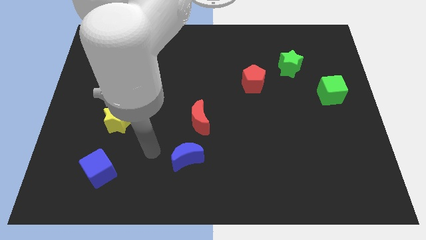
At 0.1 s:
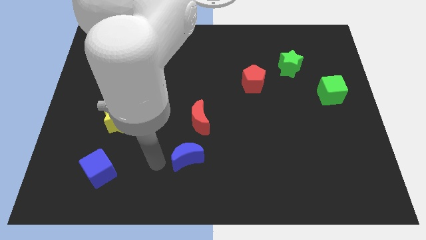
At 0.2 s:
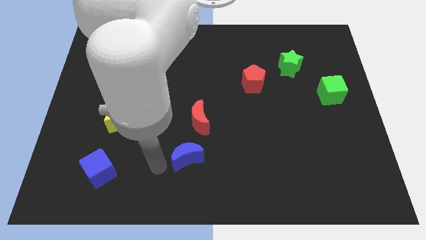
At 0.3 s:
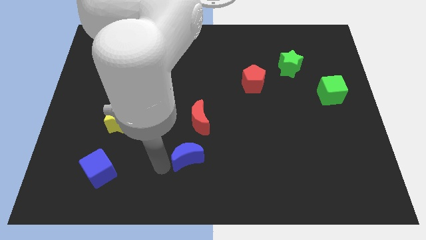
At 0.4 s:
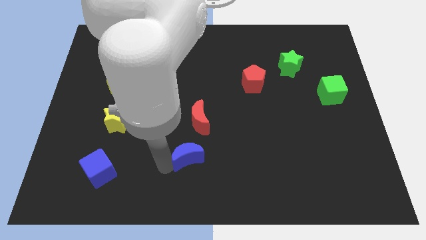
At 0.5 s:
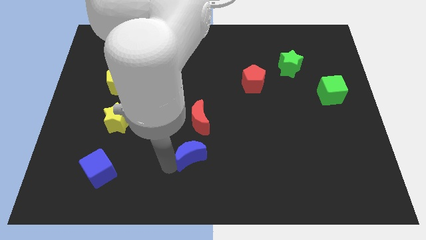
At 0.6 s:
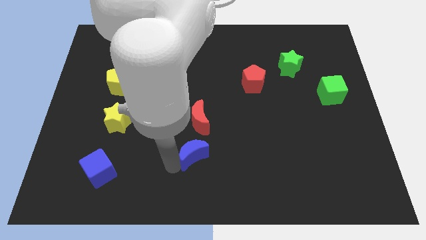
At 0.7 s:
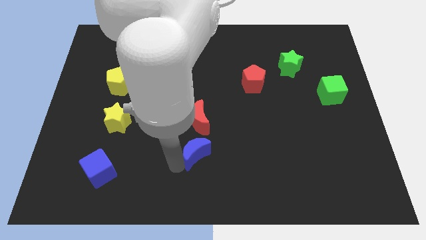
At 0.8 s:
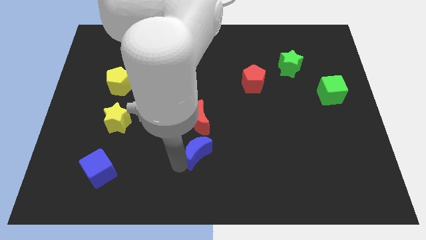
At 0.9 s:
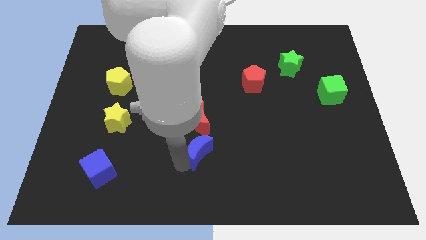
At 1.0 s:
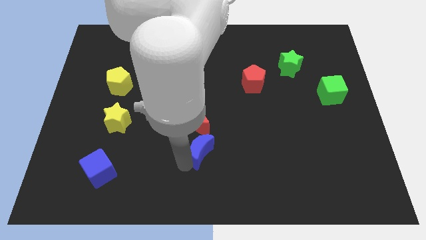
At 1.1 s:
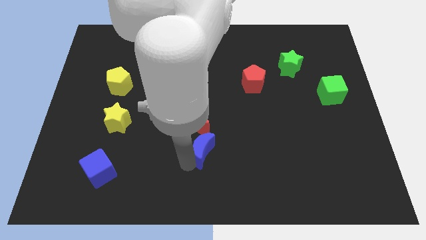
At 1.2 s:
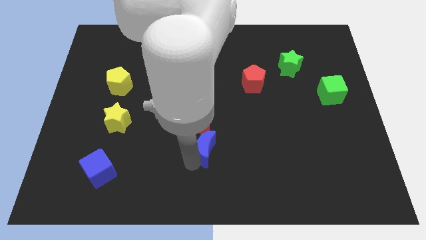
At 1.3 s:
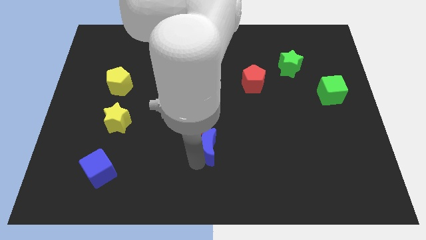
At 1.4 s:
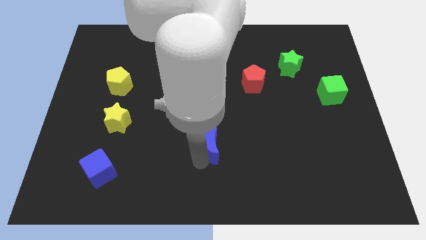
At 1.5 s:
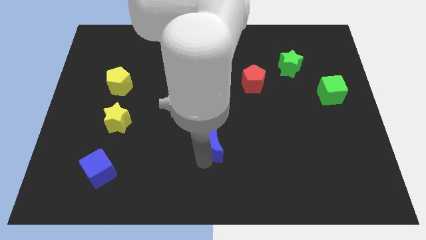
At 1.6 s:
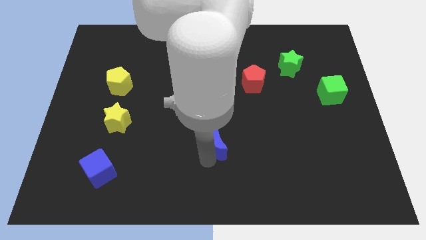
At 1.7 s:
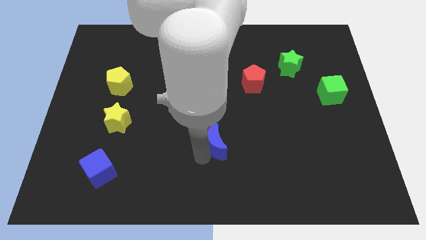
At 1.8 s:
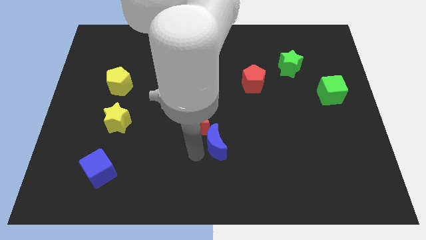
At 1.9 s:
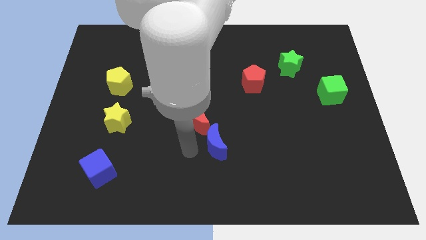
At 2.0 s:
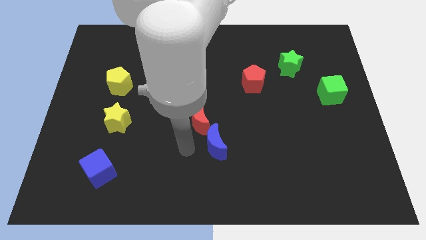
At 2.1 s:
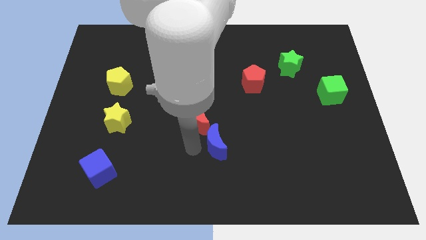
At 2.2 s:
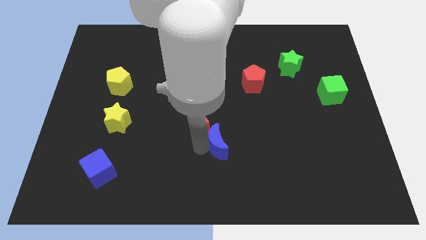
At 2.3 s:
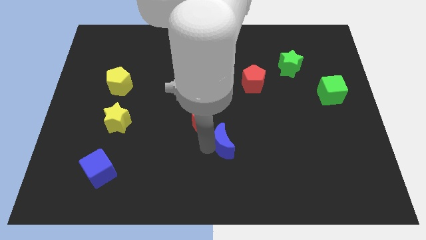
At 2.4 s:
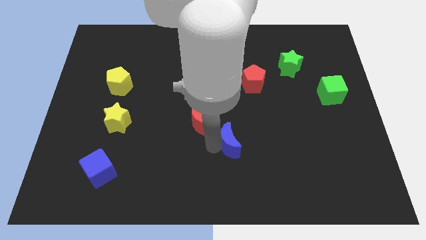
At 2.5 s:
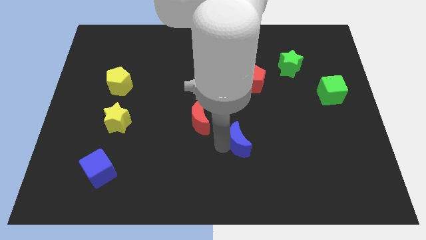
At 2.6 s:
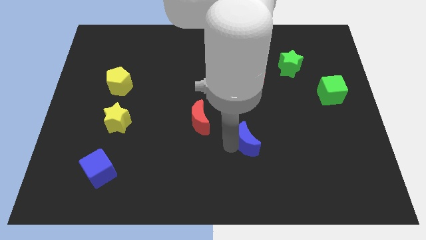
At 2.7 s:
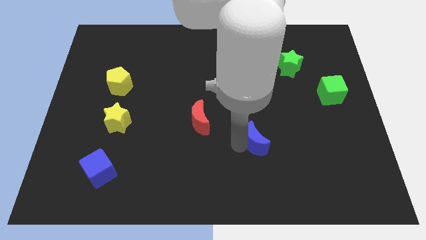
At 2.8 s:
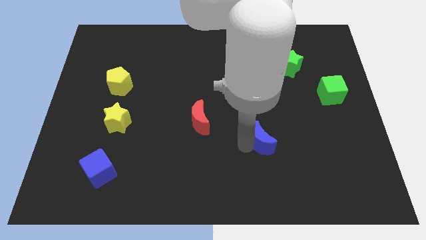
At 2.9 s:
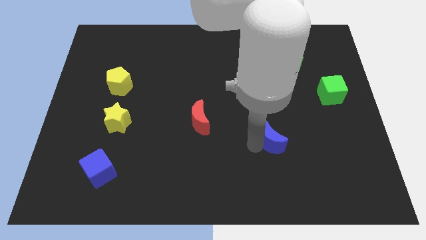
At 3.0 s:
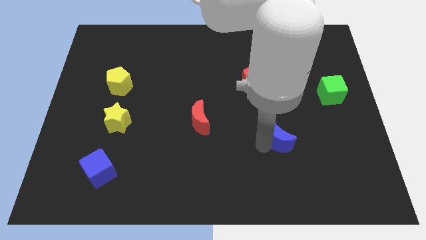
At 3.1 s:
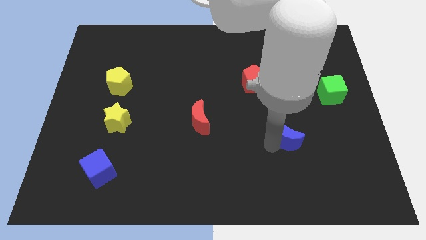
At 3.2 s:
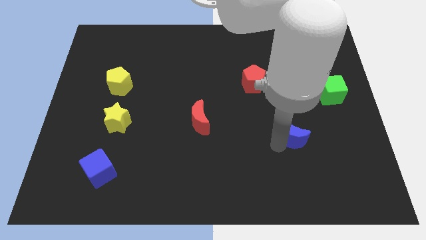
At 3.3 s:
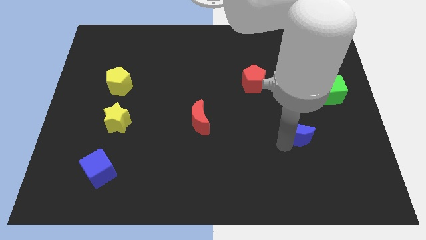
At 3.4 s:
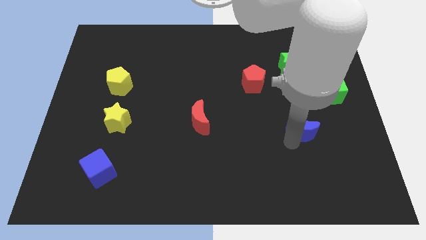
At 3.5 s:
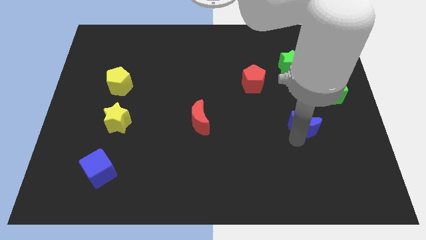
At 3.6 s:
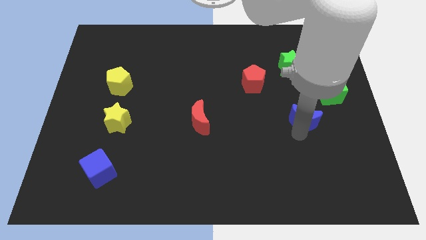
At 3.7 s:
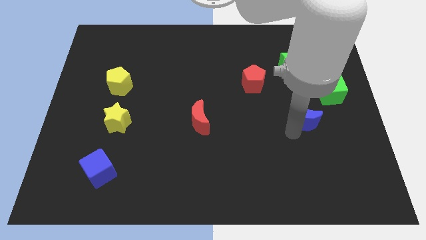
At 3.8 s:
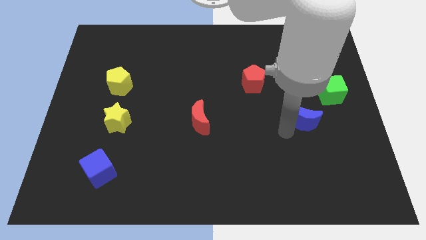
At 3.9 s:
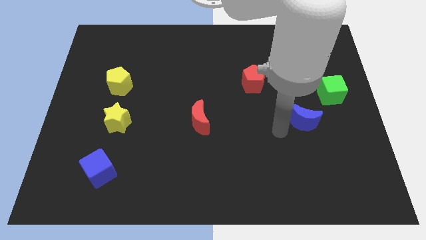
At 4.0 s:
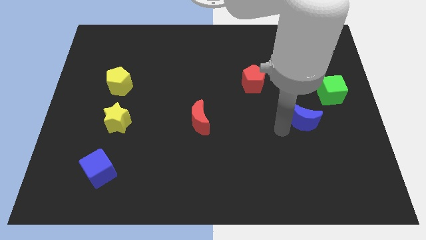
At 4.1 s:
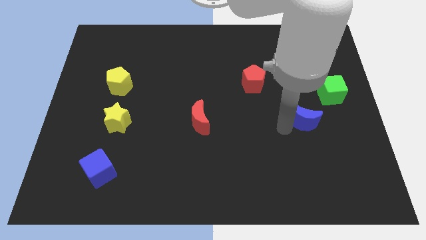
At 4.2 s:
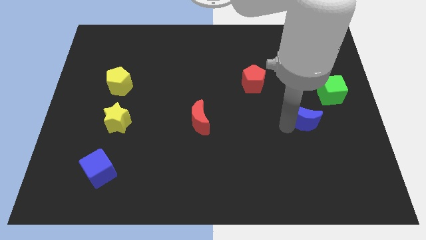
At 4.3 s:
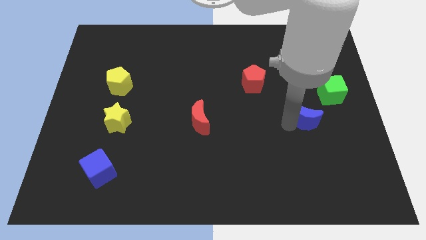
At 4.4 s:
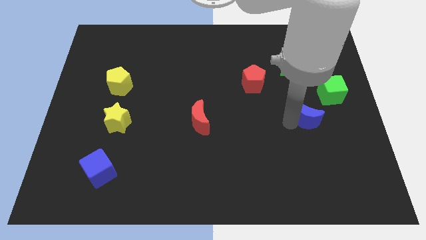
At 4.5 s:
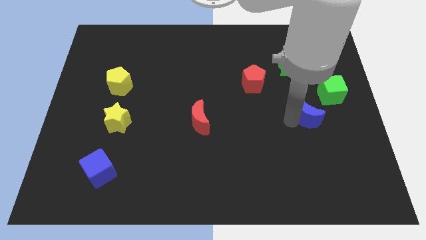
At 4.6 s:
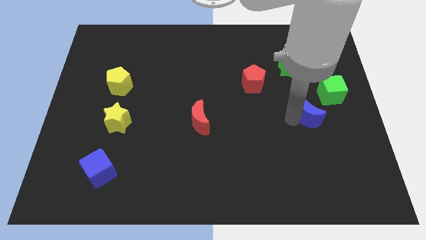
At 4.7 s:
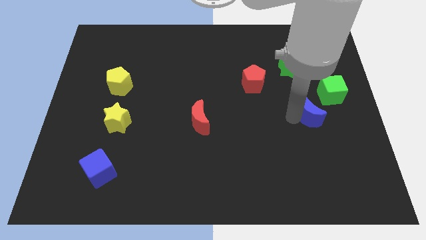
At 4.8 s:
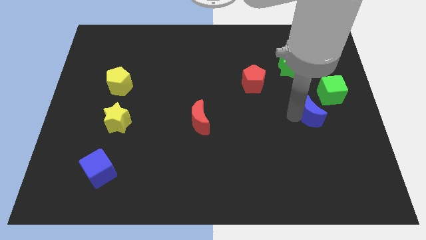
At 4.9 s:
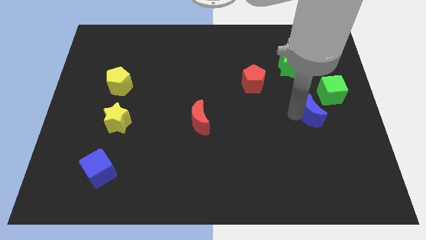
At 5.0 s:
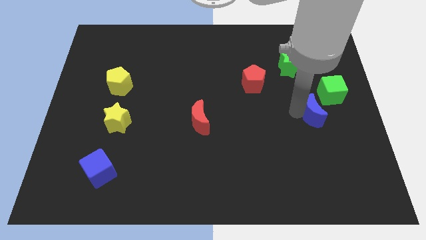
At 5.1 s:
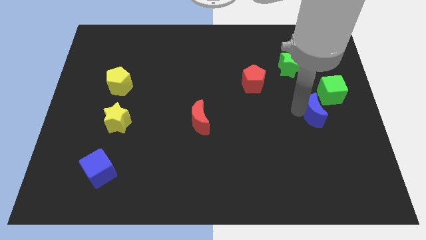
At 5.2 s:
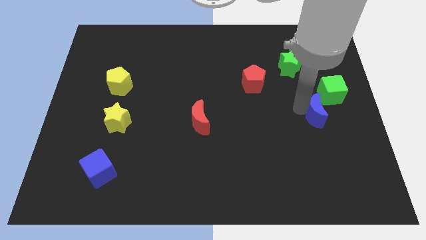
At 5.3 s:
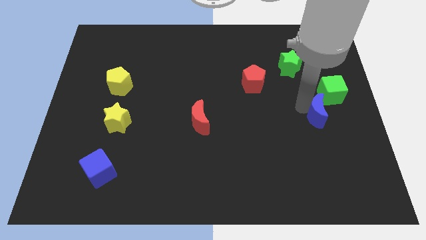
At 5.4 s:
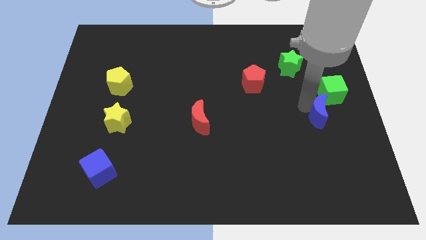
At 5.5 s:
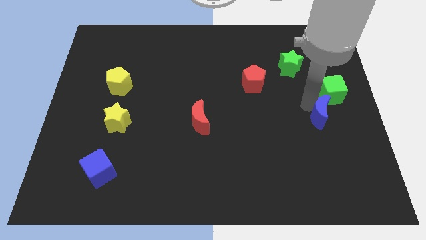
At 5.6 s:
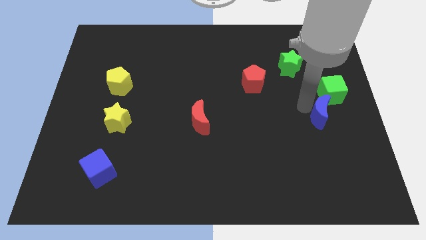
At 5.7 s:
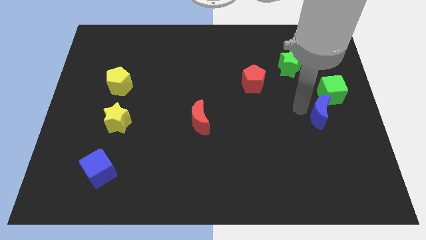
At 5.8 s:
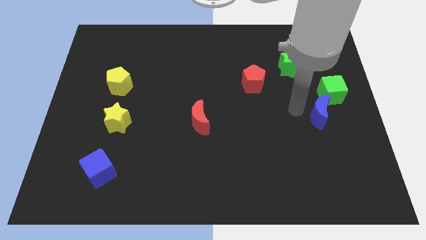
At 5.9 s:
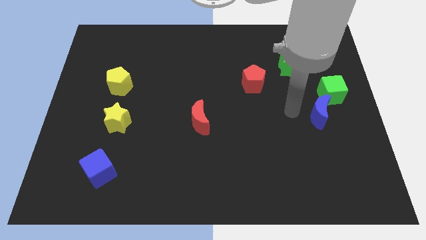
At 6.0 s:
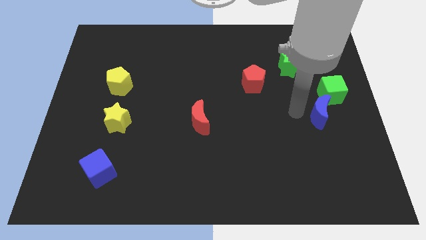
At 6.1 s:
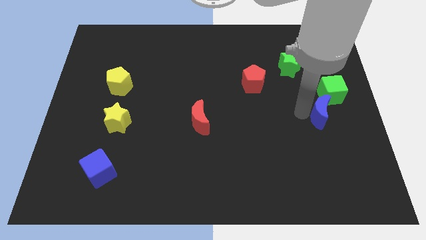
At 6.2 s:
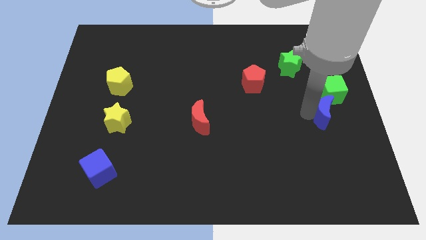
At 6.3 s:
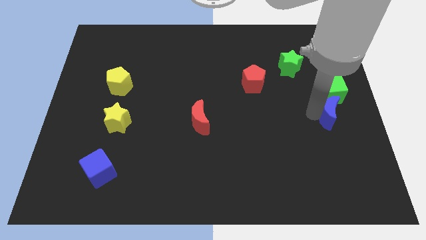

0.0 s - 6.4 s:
slide the blue moon to the right side of the board
